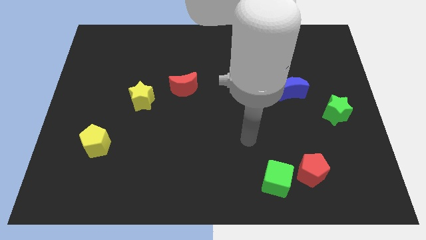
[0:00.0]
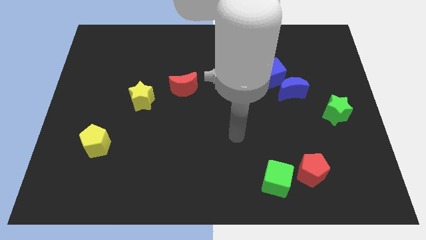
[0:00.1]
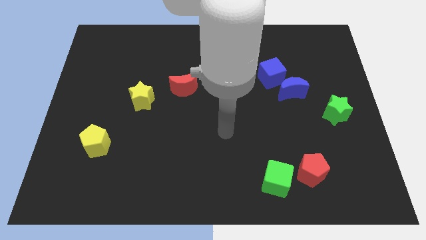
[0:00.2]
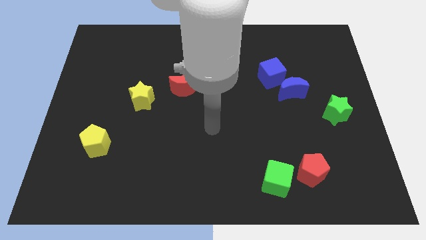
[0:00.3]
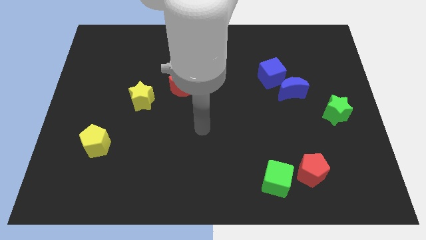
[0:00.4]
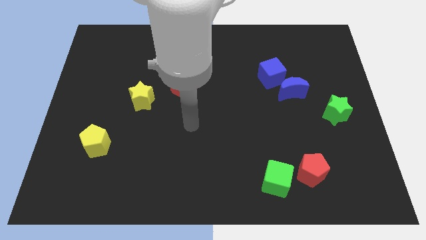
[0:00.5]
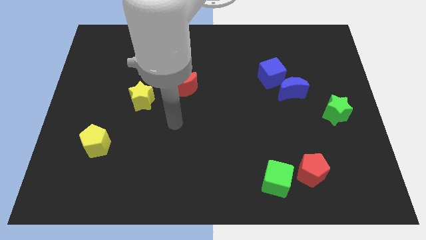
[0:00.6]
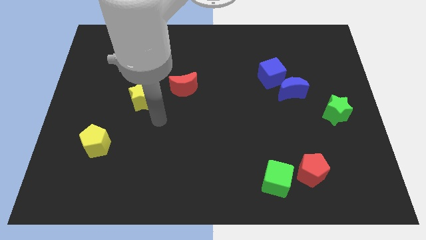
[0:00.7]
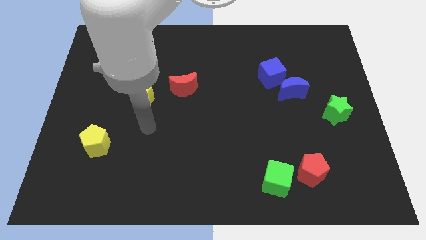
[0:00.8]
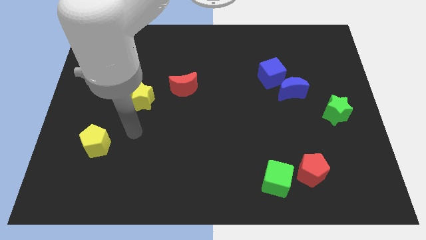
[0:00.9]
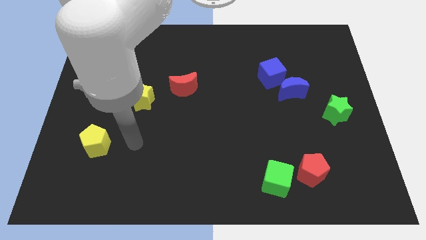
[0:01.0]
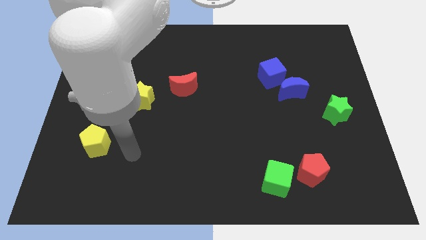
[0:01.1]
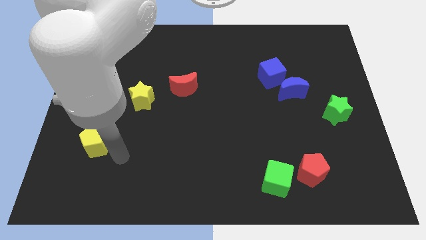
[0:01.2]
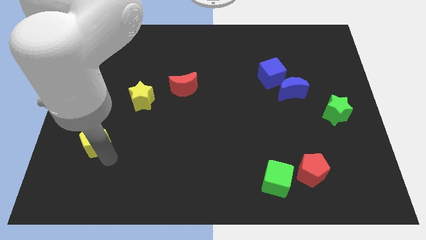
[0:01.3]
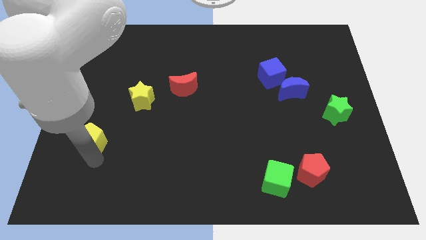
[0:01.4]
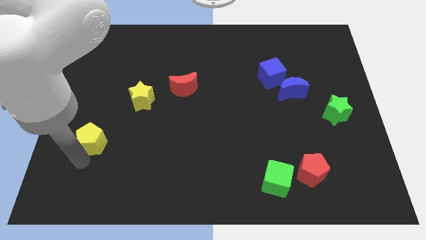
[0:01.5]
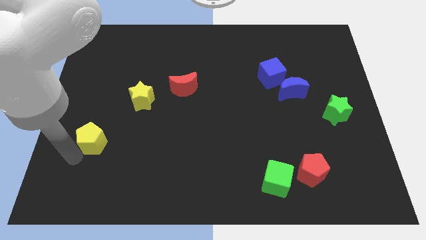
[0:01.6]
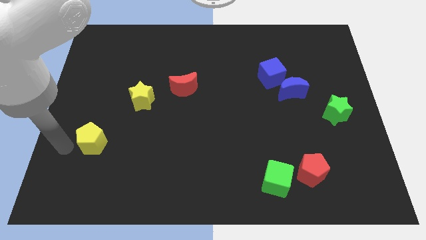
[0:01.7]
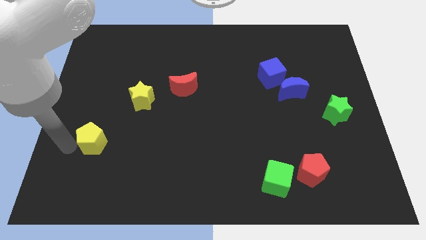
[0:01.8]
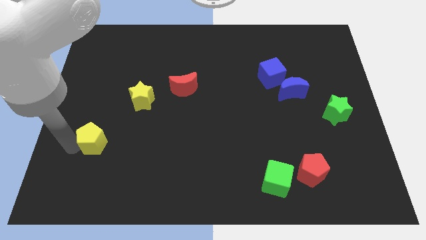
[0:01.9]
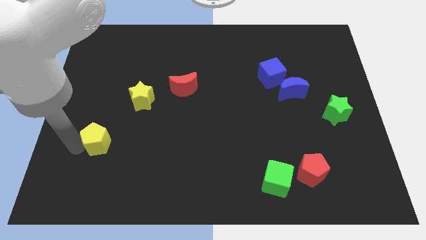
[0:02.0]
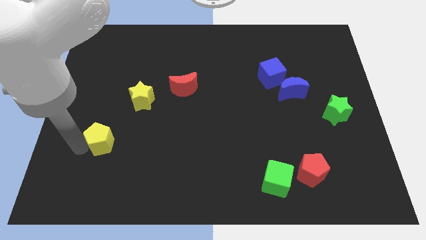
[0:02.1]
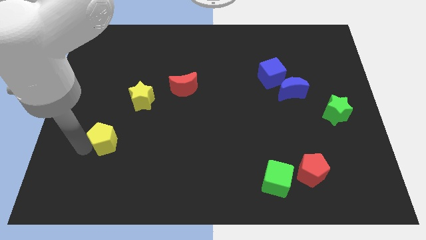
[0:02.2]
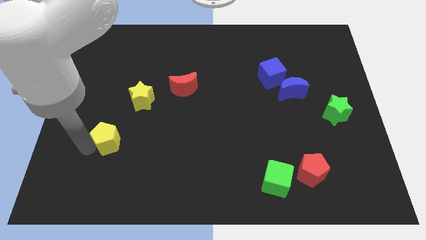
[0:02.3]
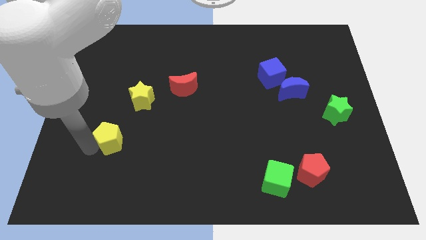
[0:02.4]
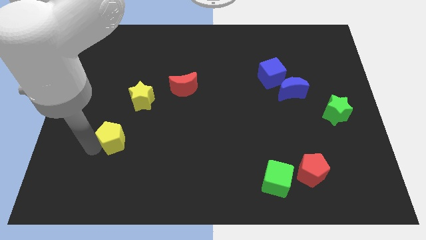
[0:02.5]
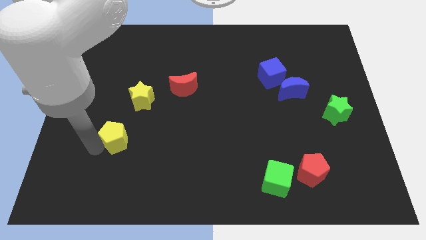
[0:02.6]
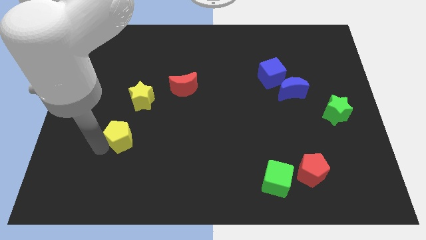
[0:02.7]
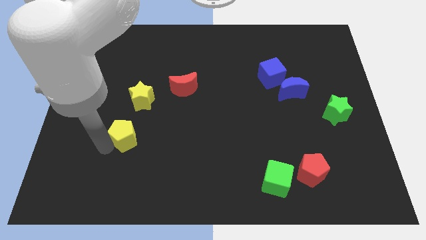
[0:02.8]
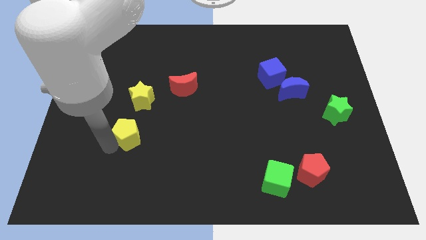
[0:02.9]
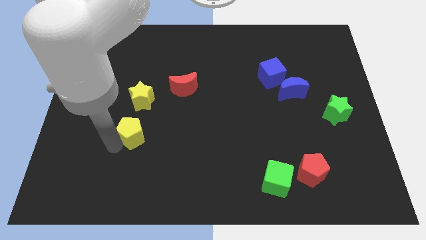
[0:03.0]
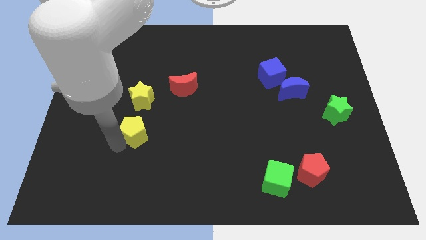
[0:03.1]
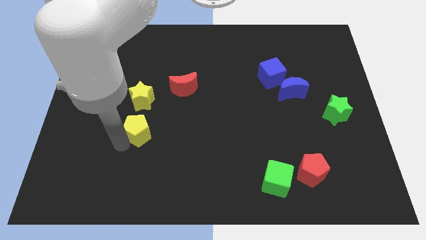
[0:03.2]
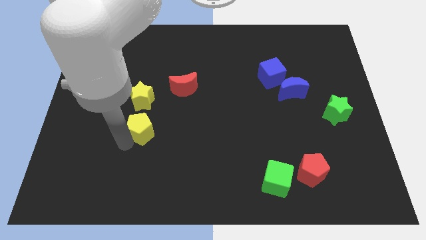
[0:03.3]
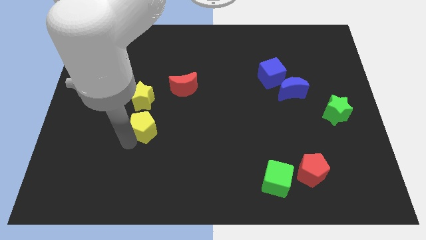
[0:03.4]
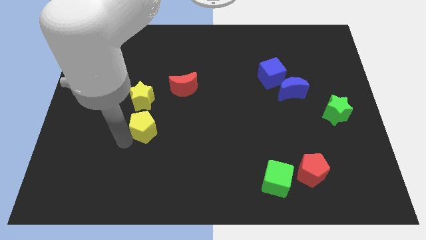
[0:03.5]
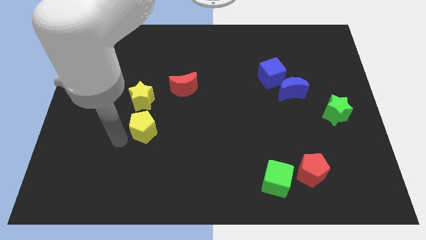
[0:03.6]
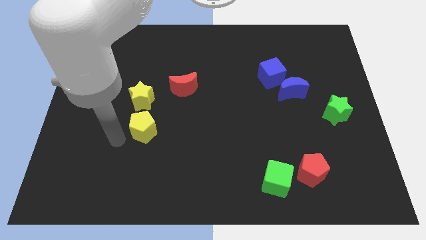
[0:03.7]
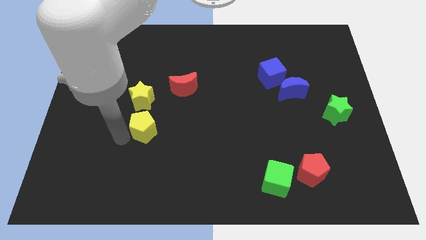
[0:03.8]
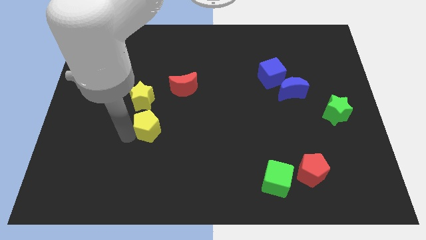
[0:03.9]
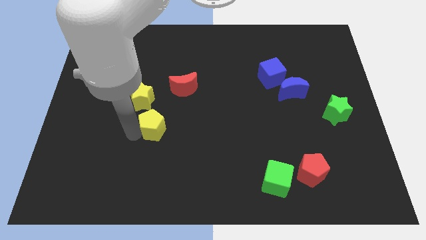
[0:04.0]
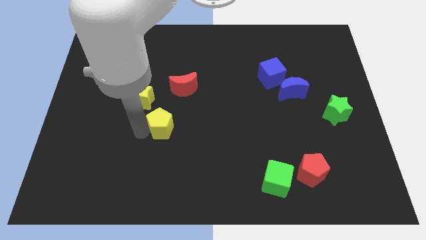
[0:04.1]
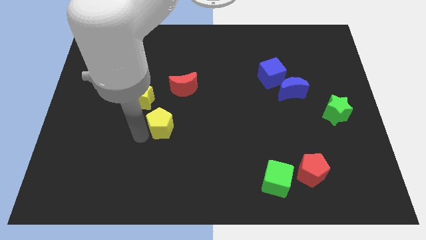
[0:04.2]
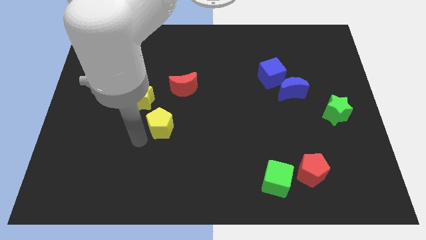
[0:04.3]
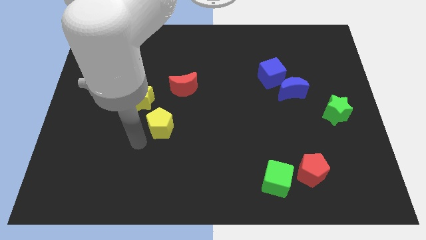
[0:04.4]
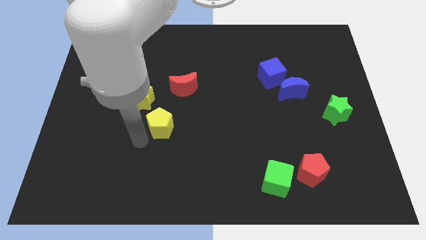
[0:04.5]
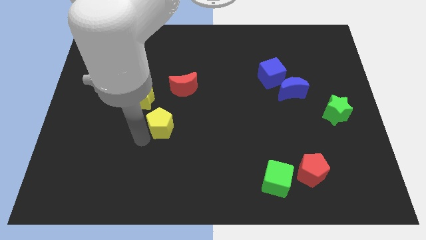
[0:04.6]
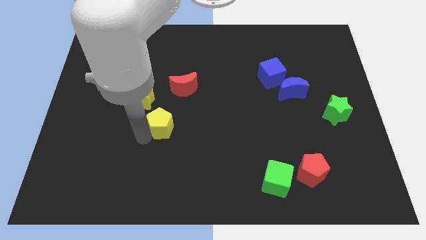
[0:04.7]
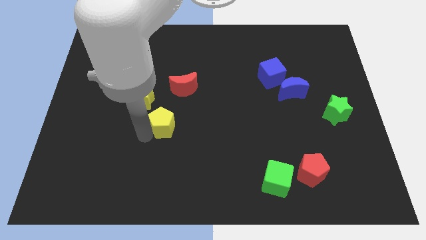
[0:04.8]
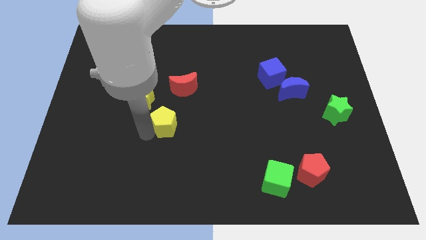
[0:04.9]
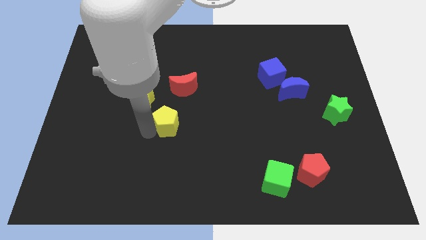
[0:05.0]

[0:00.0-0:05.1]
move the yellow pentagon to the middle of the board

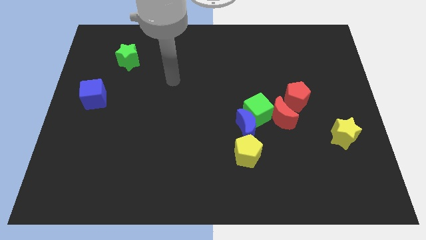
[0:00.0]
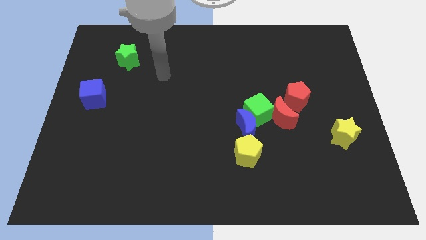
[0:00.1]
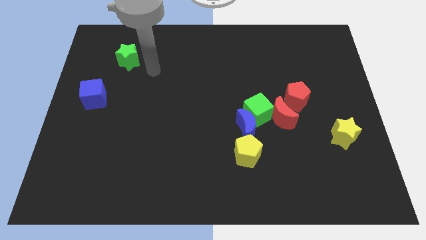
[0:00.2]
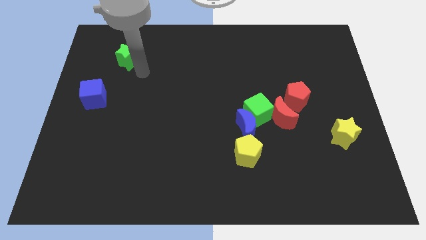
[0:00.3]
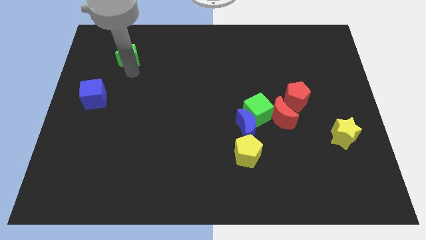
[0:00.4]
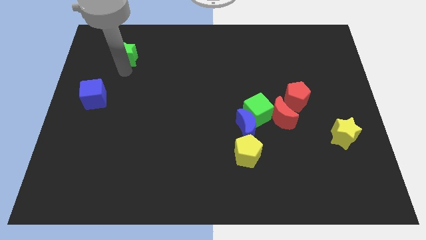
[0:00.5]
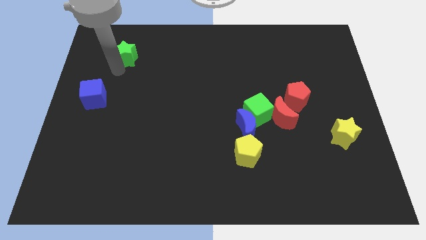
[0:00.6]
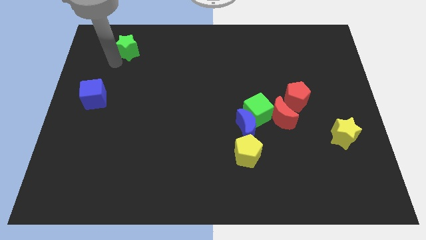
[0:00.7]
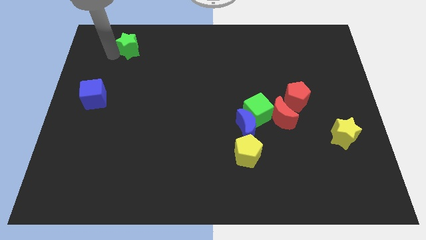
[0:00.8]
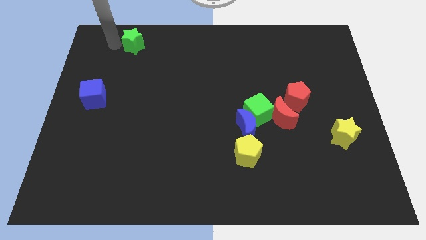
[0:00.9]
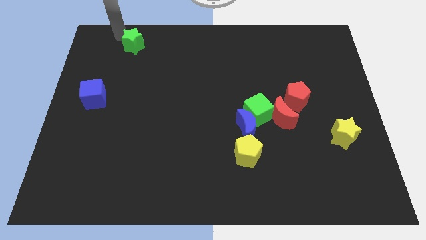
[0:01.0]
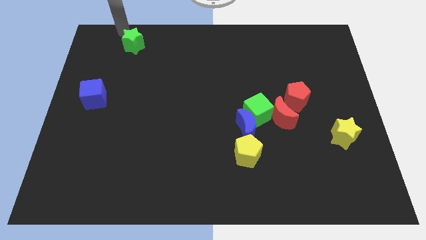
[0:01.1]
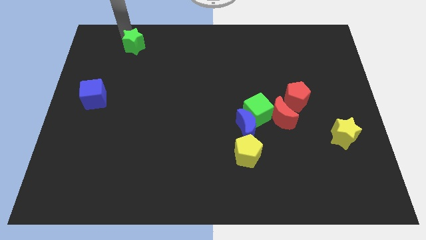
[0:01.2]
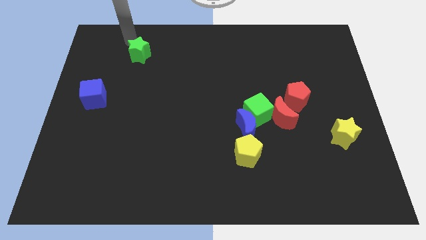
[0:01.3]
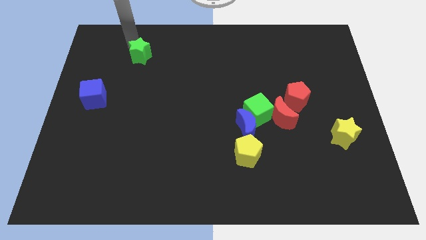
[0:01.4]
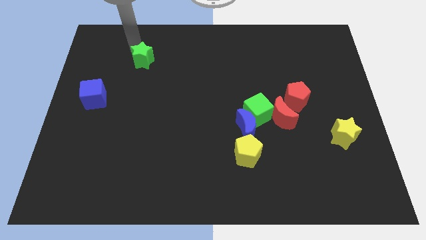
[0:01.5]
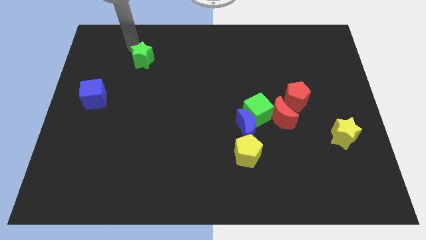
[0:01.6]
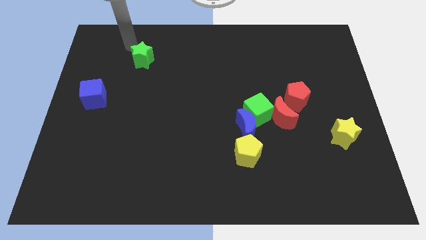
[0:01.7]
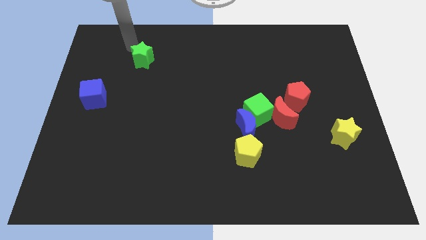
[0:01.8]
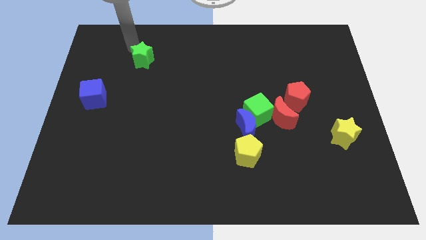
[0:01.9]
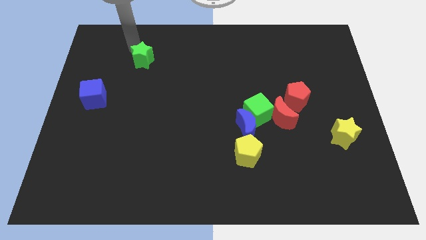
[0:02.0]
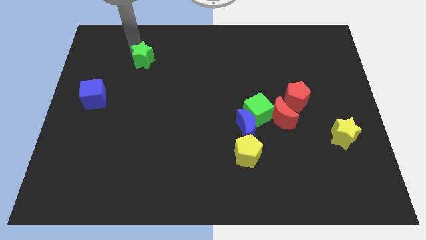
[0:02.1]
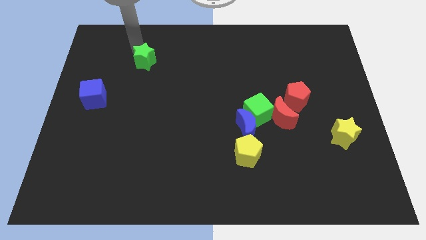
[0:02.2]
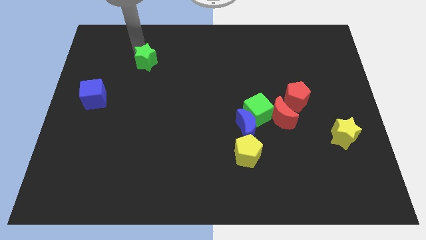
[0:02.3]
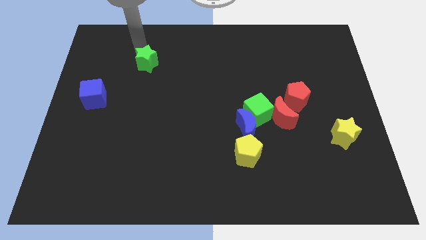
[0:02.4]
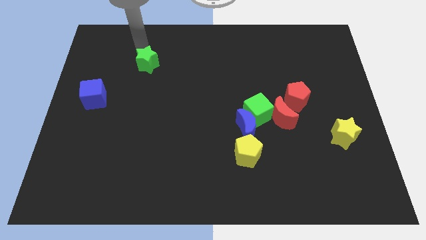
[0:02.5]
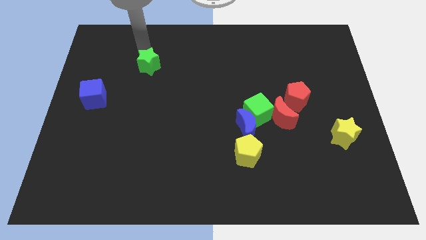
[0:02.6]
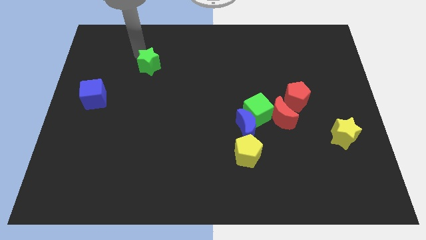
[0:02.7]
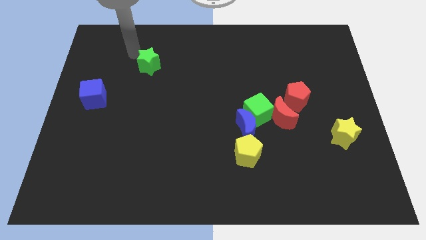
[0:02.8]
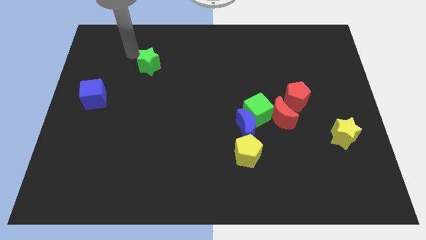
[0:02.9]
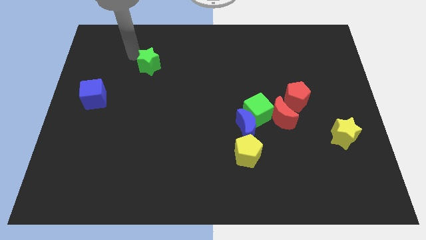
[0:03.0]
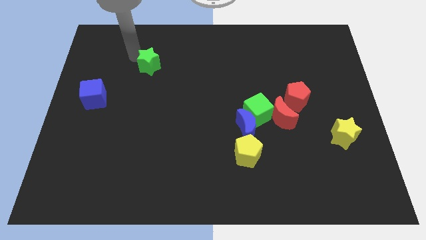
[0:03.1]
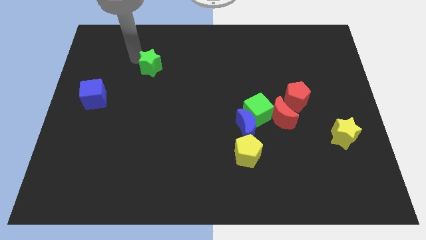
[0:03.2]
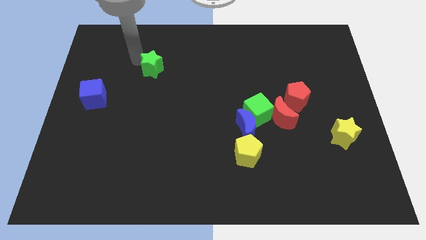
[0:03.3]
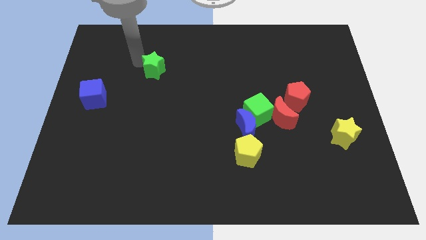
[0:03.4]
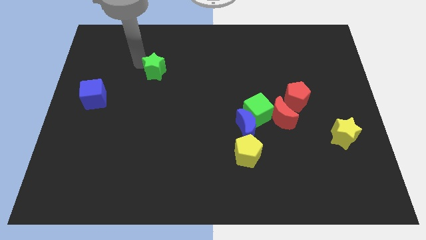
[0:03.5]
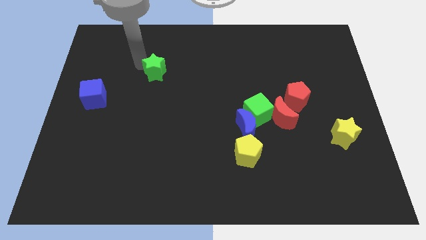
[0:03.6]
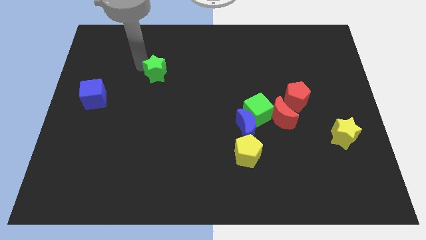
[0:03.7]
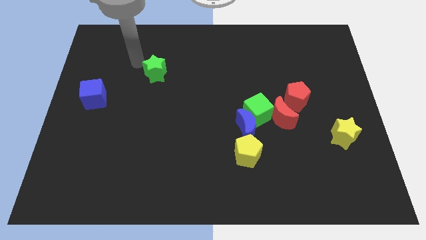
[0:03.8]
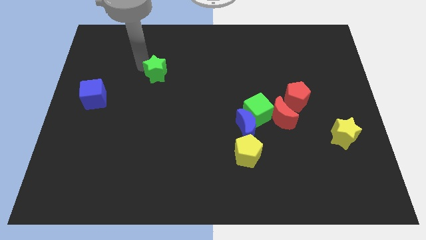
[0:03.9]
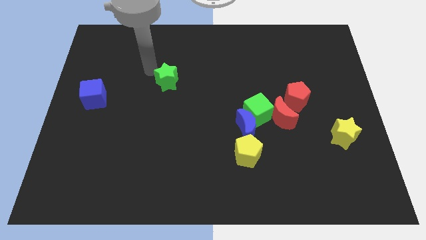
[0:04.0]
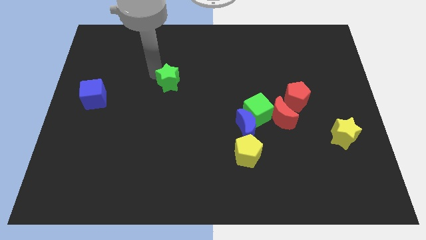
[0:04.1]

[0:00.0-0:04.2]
slide the green star to the center of the board
